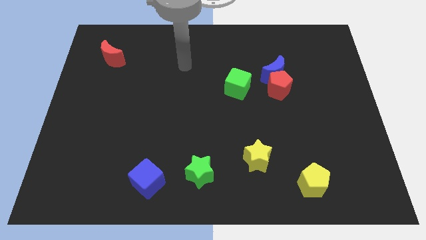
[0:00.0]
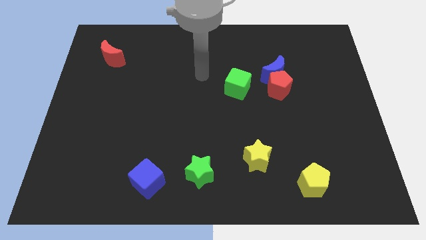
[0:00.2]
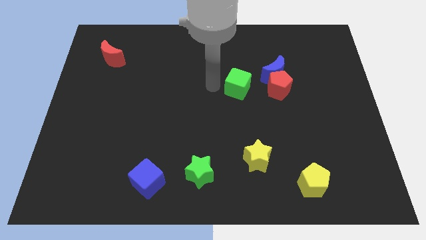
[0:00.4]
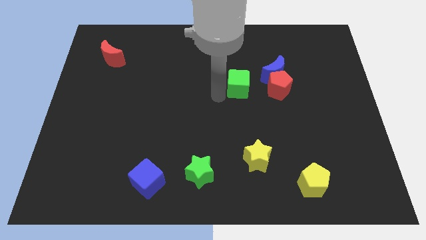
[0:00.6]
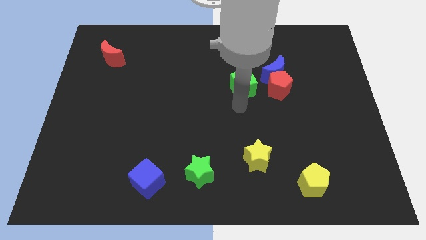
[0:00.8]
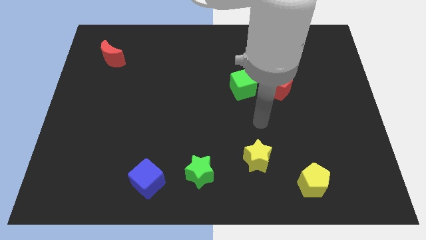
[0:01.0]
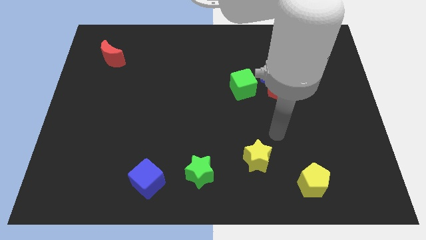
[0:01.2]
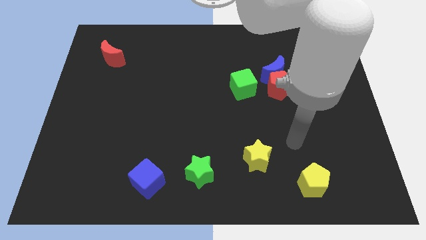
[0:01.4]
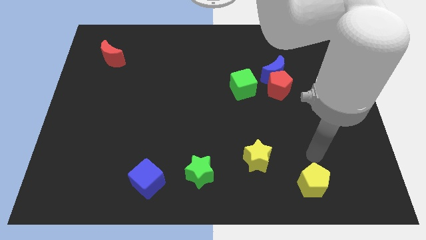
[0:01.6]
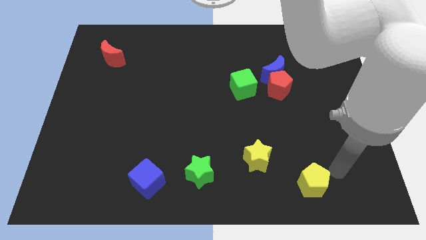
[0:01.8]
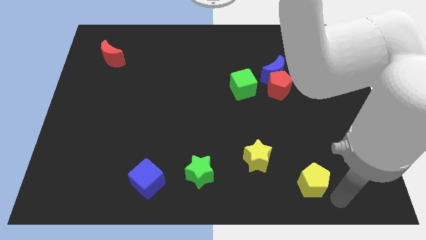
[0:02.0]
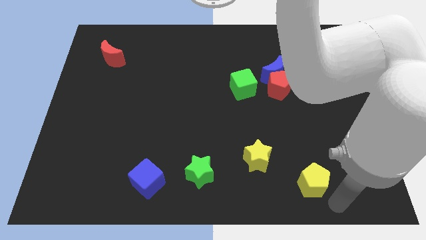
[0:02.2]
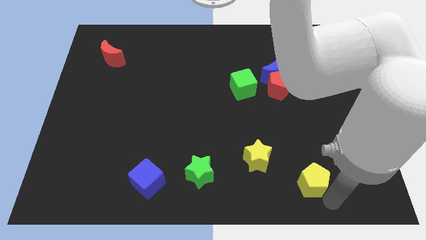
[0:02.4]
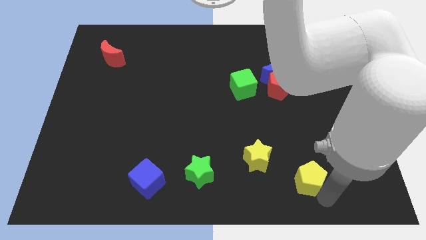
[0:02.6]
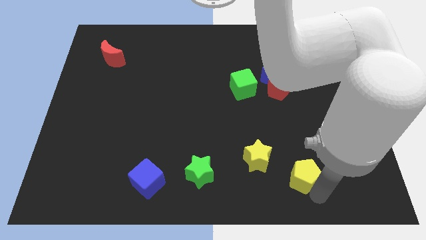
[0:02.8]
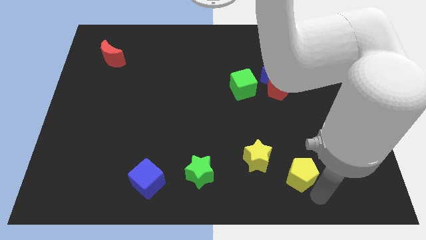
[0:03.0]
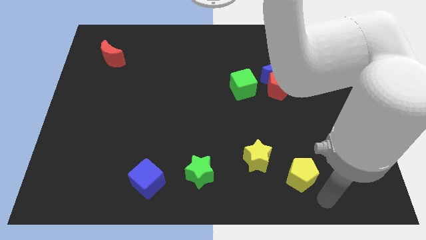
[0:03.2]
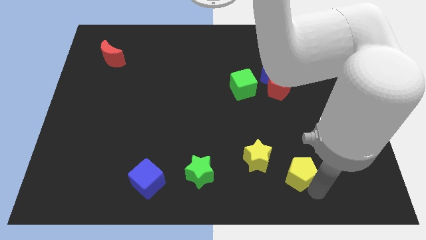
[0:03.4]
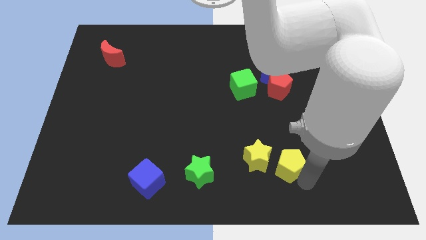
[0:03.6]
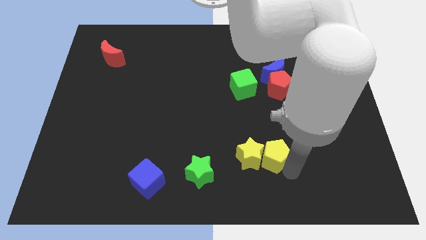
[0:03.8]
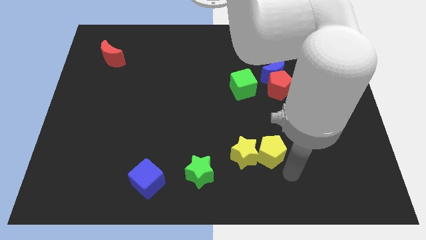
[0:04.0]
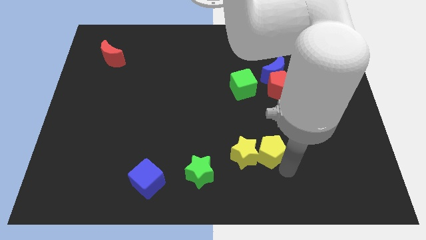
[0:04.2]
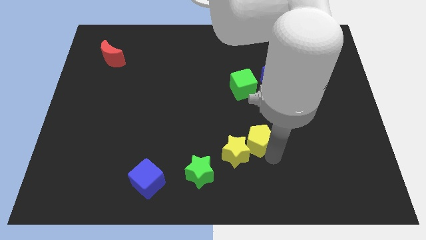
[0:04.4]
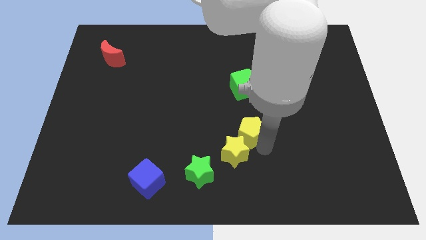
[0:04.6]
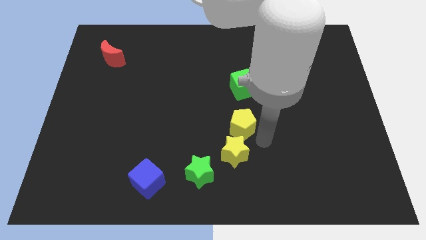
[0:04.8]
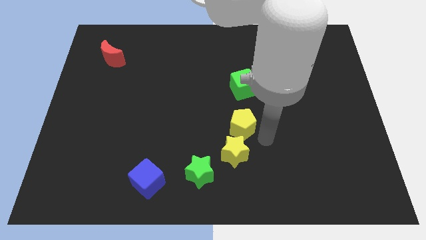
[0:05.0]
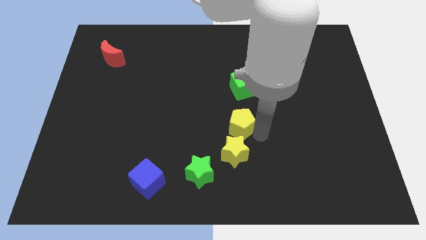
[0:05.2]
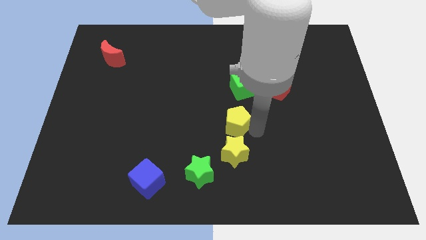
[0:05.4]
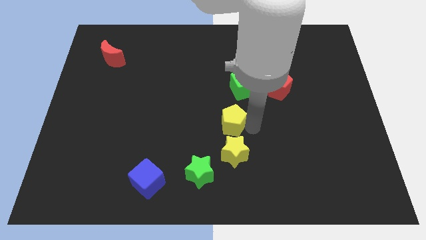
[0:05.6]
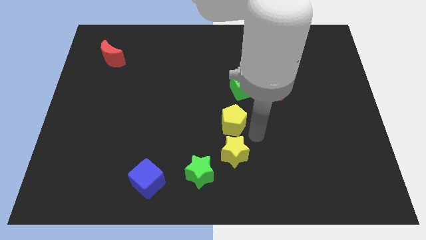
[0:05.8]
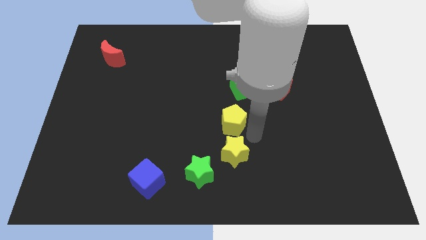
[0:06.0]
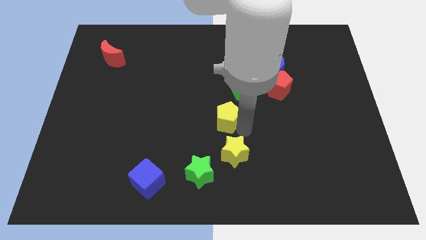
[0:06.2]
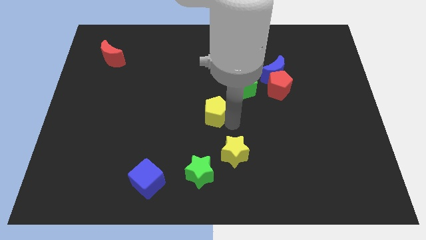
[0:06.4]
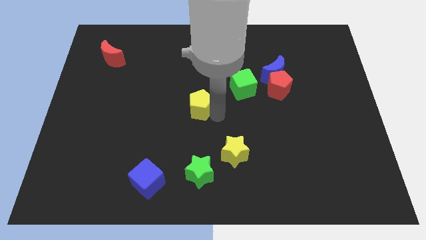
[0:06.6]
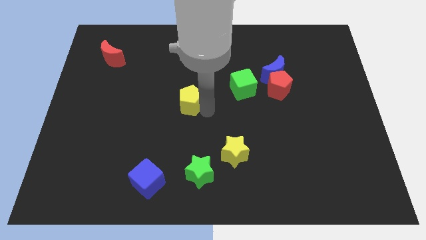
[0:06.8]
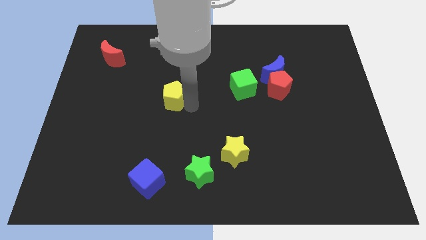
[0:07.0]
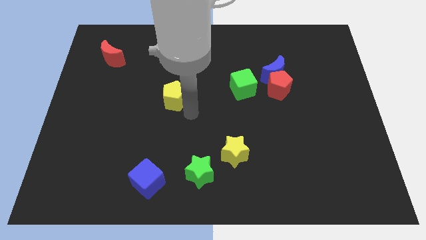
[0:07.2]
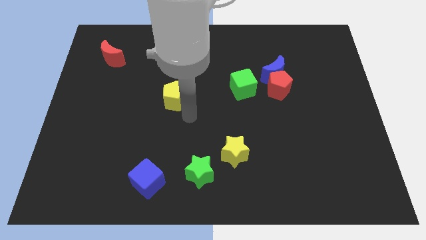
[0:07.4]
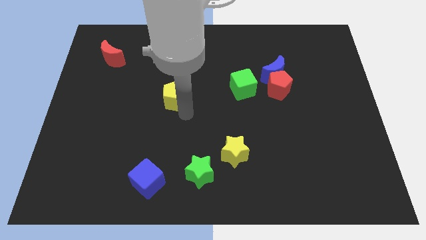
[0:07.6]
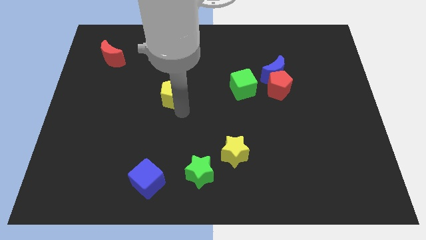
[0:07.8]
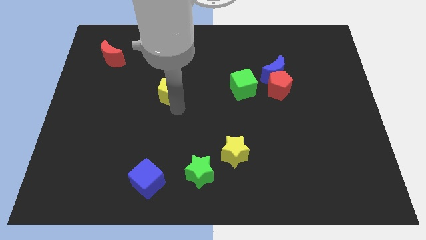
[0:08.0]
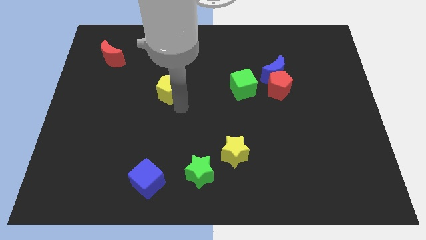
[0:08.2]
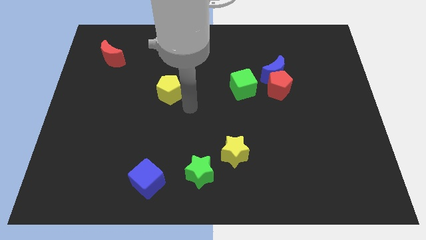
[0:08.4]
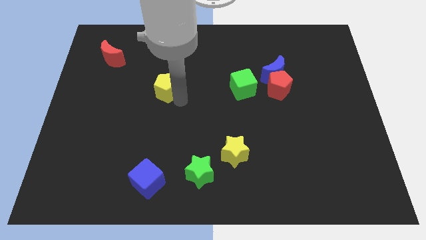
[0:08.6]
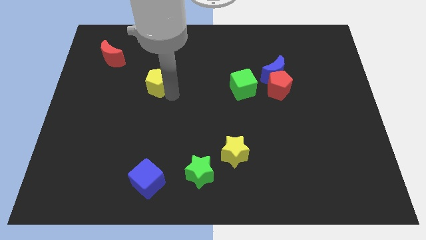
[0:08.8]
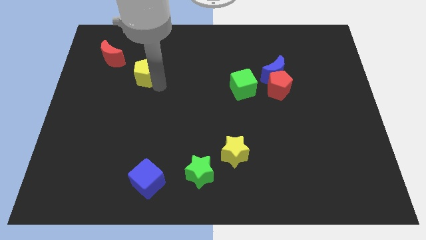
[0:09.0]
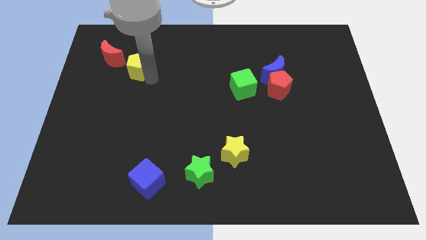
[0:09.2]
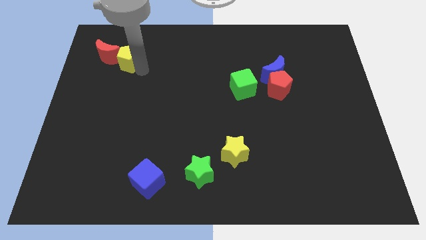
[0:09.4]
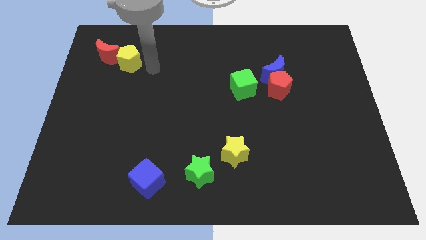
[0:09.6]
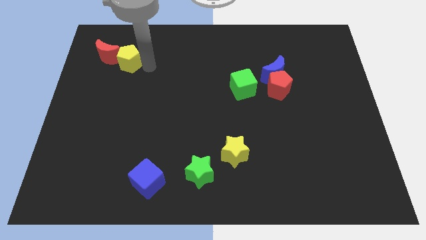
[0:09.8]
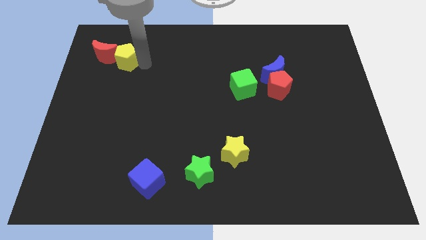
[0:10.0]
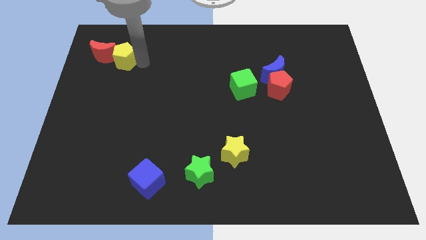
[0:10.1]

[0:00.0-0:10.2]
move the yellow pentagon close to the red moon

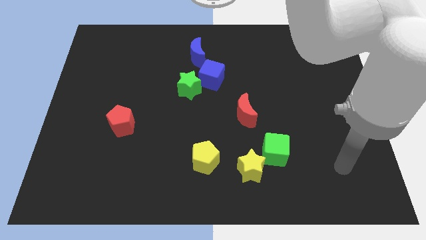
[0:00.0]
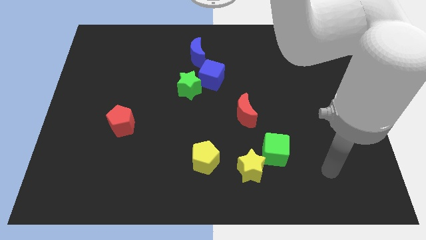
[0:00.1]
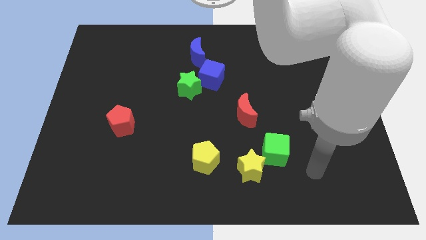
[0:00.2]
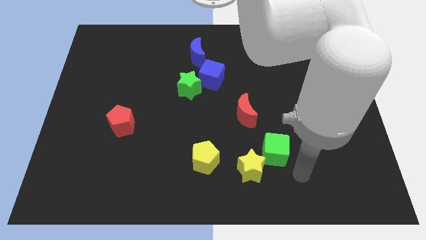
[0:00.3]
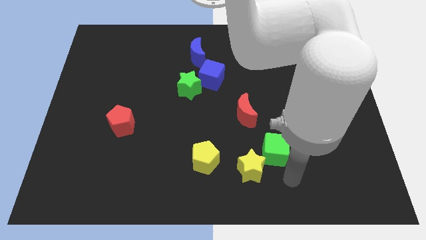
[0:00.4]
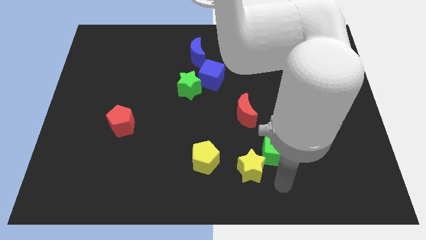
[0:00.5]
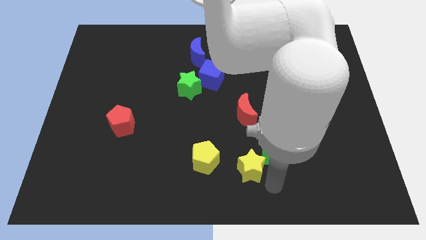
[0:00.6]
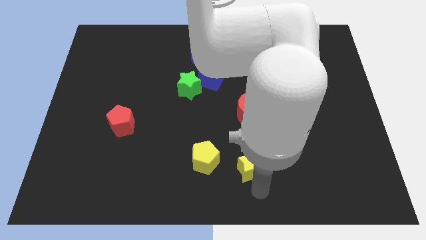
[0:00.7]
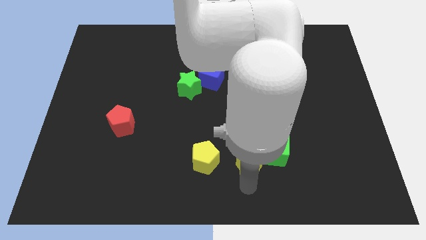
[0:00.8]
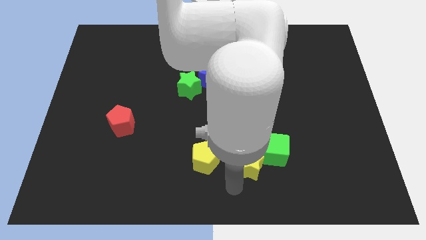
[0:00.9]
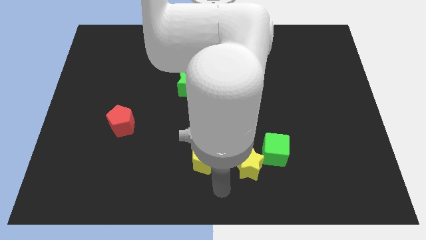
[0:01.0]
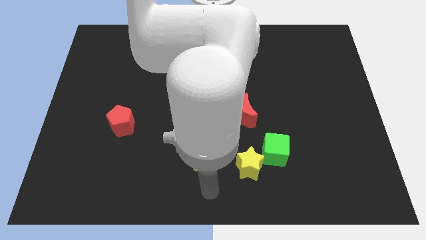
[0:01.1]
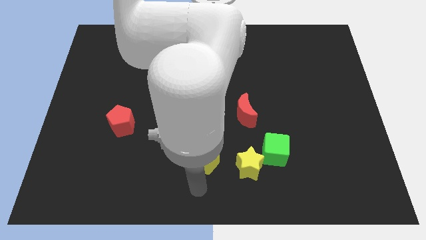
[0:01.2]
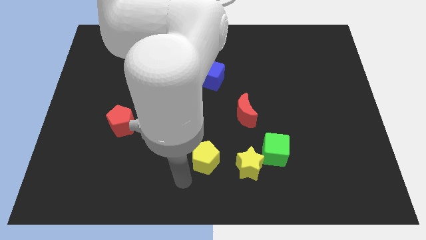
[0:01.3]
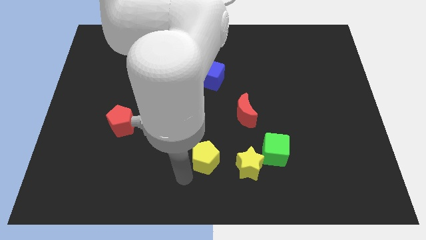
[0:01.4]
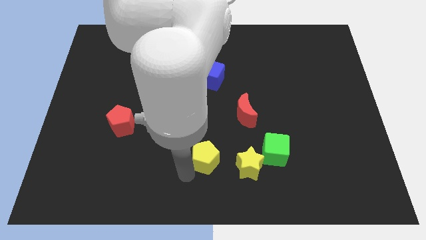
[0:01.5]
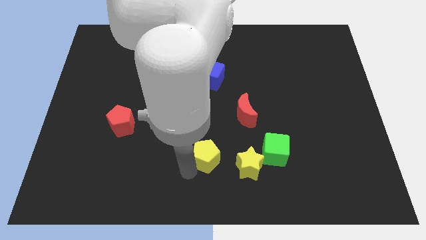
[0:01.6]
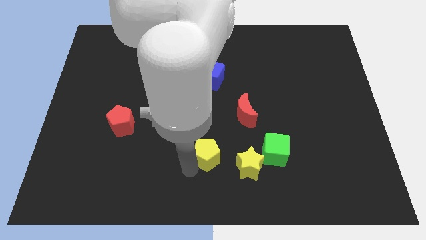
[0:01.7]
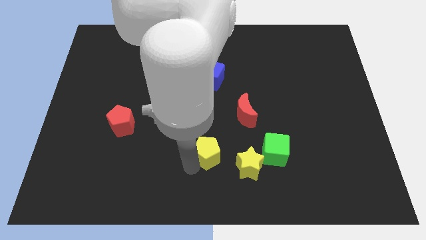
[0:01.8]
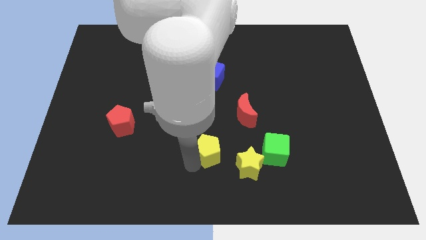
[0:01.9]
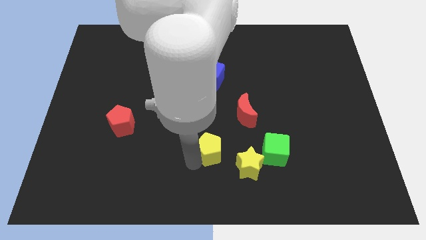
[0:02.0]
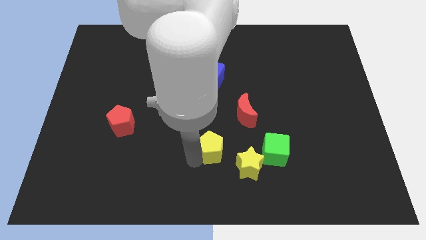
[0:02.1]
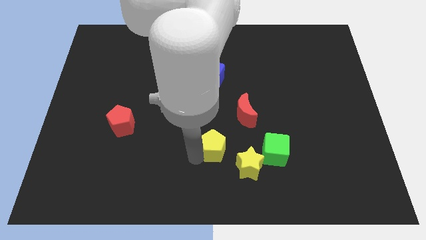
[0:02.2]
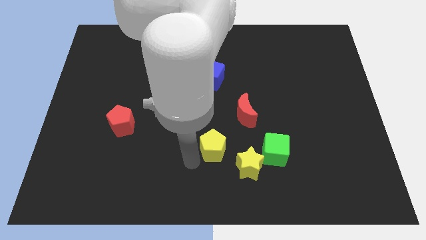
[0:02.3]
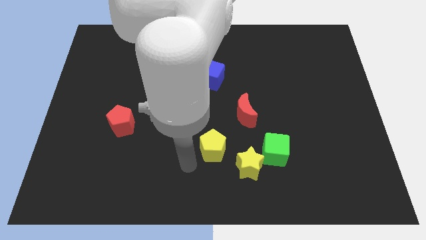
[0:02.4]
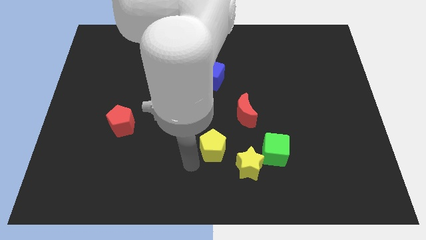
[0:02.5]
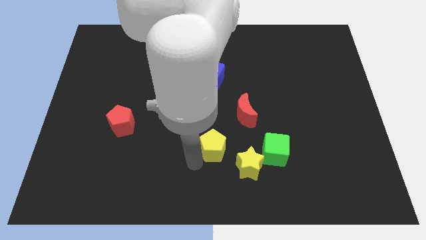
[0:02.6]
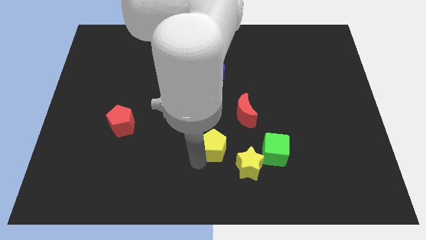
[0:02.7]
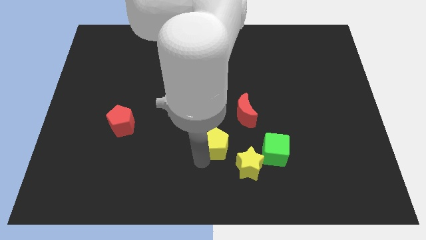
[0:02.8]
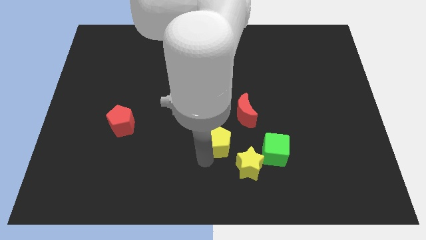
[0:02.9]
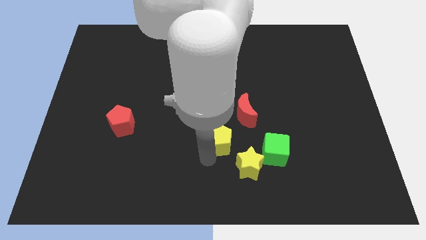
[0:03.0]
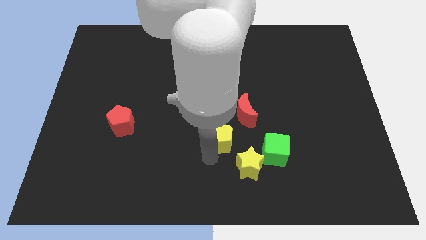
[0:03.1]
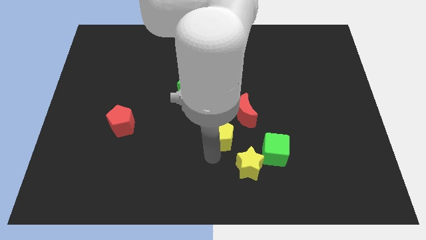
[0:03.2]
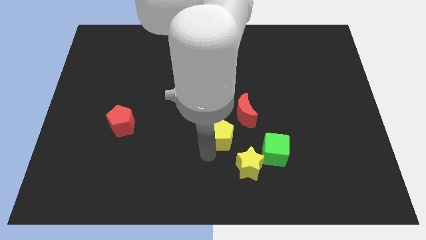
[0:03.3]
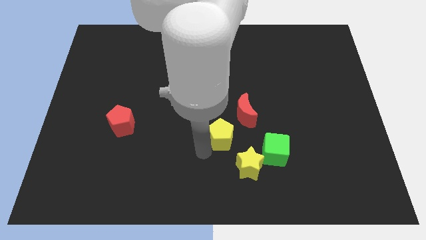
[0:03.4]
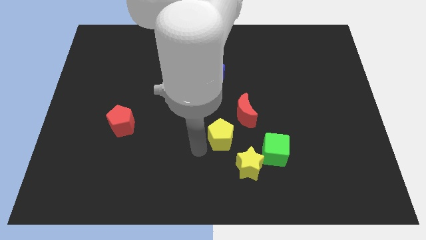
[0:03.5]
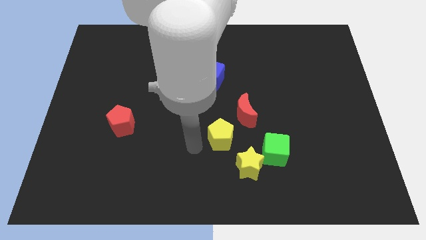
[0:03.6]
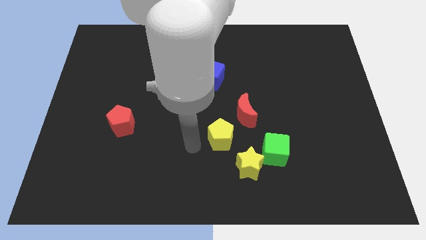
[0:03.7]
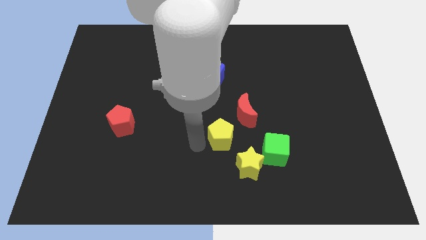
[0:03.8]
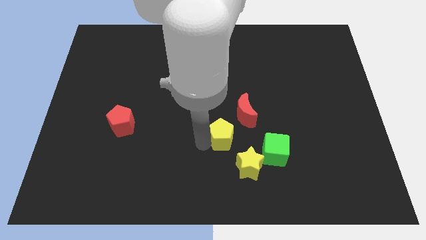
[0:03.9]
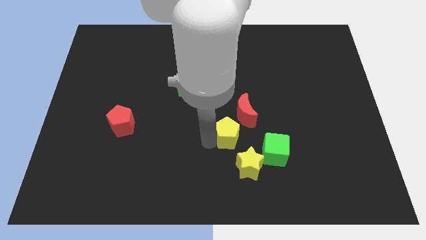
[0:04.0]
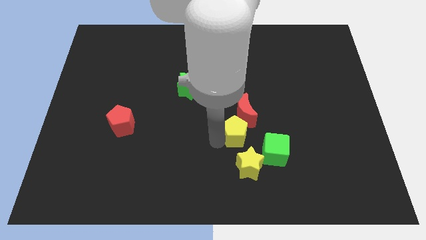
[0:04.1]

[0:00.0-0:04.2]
put the yellow pentagon next to the red moon
